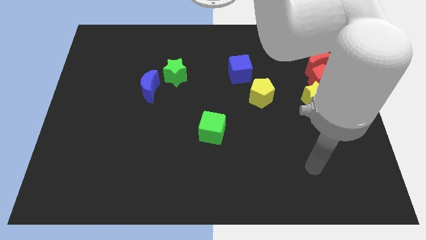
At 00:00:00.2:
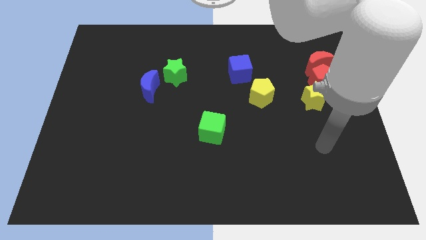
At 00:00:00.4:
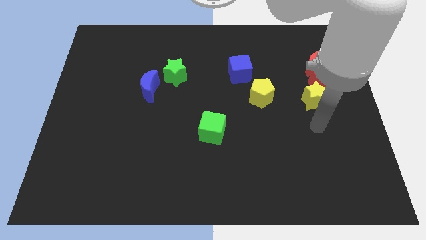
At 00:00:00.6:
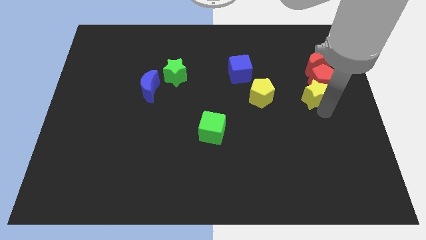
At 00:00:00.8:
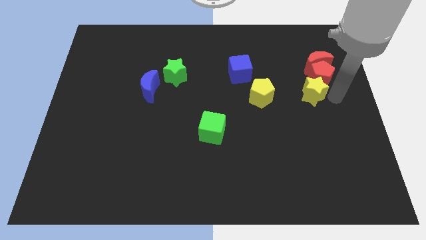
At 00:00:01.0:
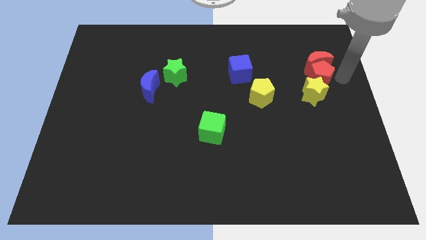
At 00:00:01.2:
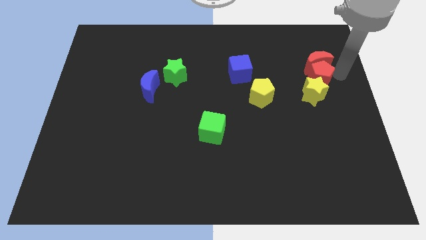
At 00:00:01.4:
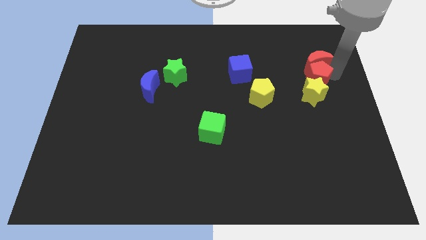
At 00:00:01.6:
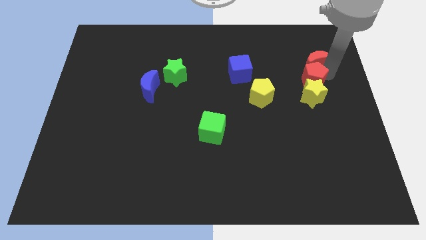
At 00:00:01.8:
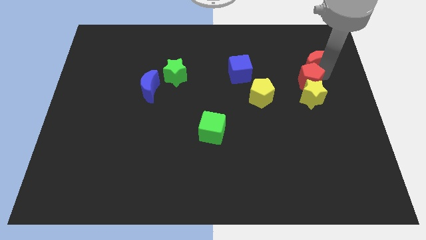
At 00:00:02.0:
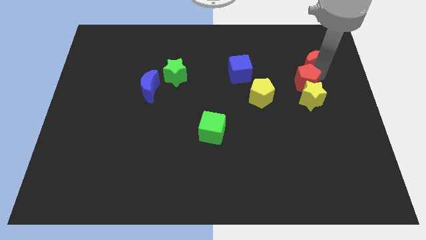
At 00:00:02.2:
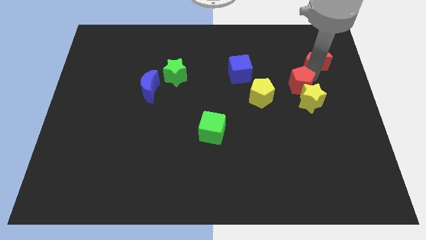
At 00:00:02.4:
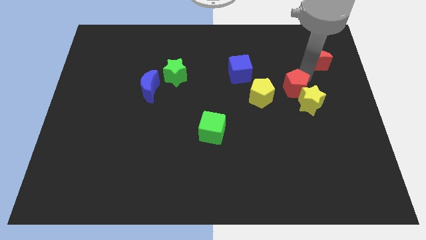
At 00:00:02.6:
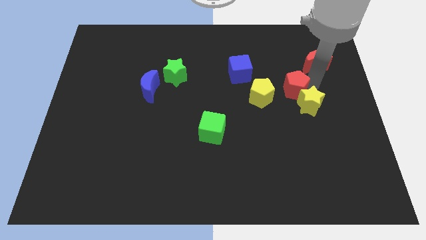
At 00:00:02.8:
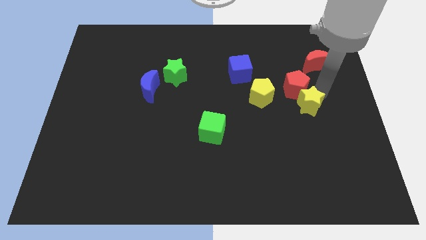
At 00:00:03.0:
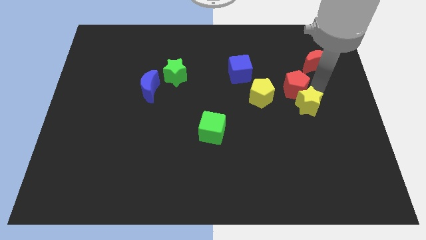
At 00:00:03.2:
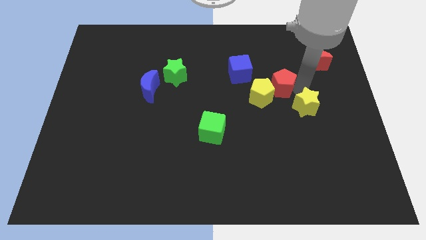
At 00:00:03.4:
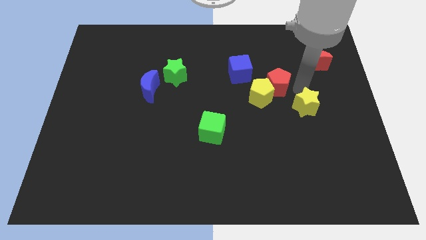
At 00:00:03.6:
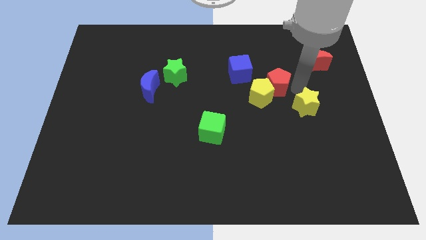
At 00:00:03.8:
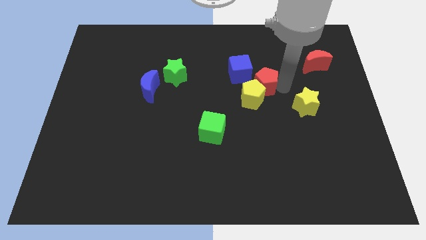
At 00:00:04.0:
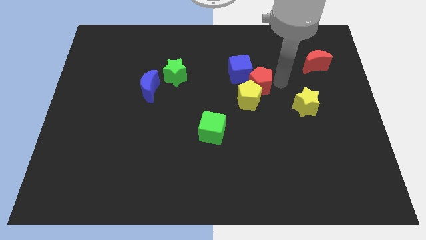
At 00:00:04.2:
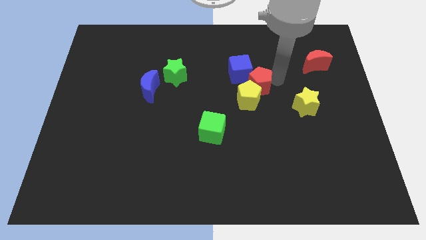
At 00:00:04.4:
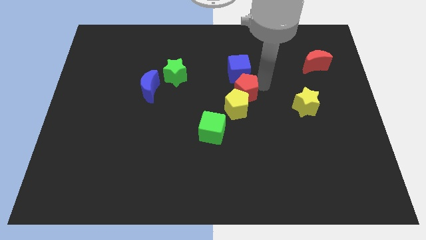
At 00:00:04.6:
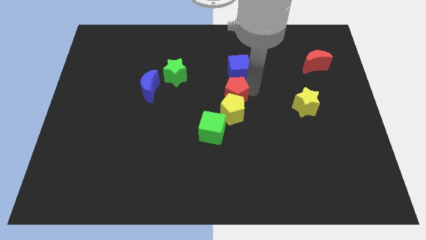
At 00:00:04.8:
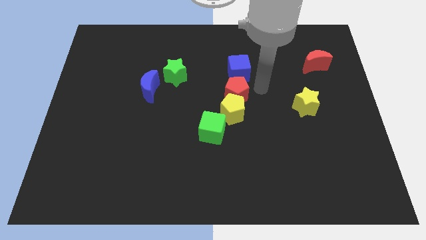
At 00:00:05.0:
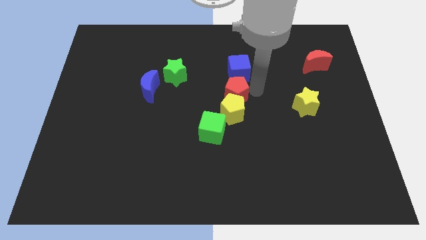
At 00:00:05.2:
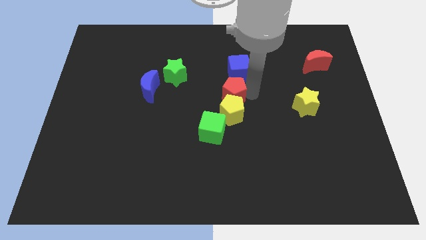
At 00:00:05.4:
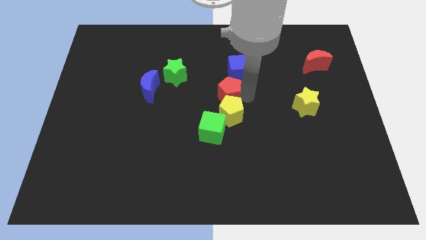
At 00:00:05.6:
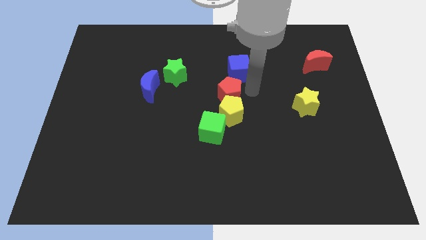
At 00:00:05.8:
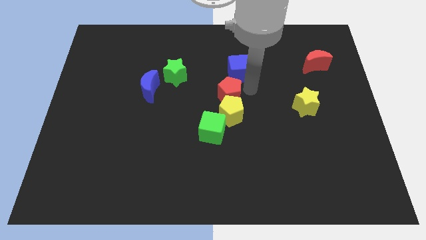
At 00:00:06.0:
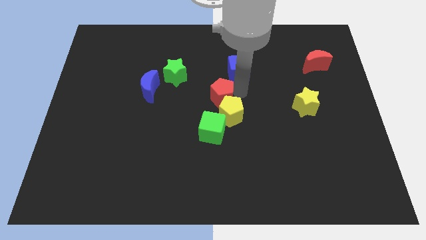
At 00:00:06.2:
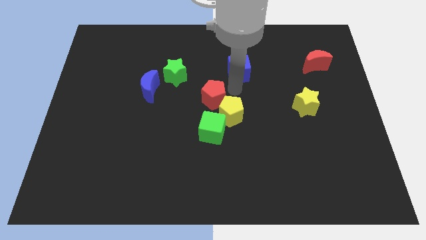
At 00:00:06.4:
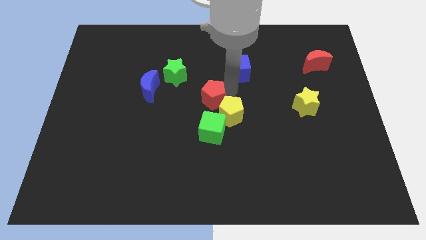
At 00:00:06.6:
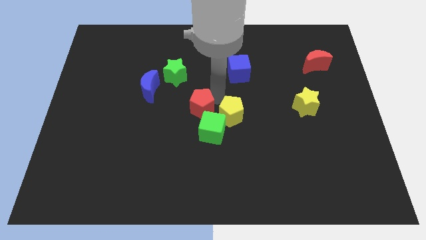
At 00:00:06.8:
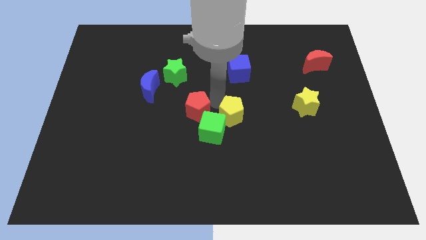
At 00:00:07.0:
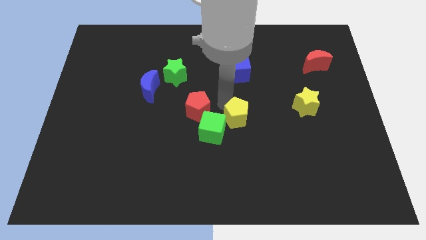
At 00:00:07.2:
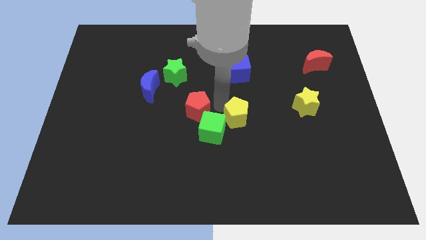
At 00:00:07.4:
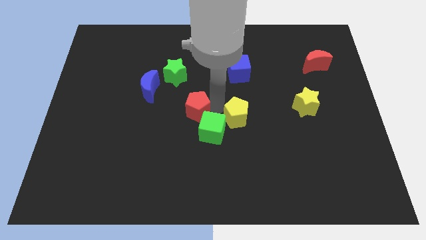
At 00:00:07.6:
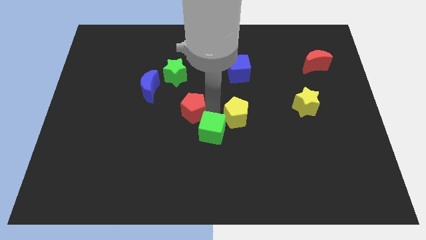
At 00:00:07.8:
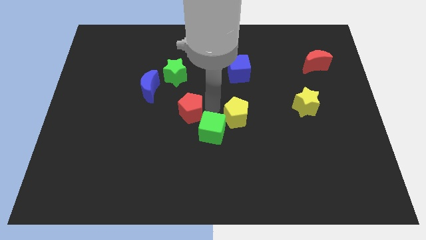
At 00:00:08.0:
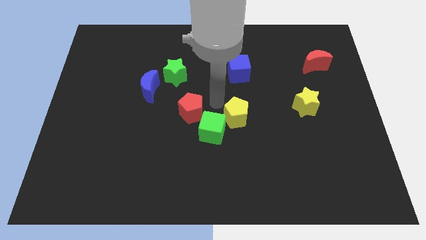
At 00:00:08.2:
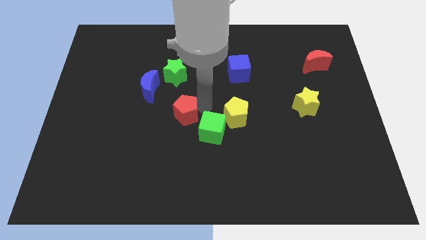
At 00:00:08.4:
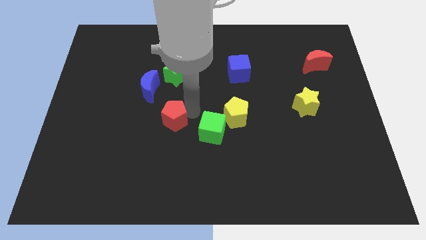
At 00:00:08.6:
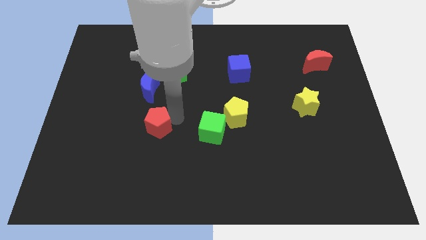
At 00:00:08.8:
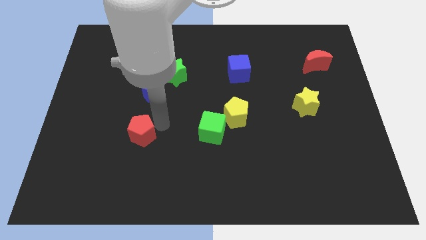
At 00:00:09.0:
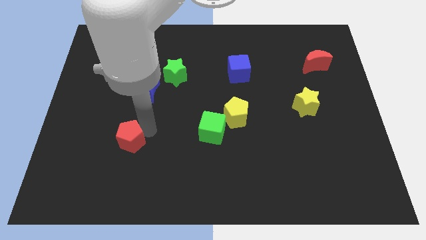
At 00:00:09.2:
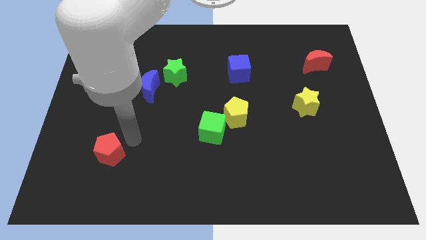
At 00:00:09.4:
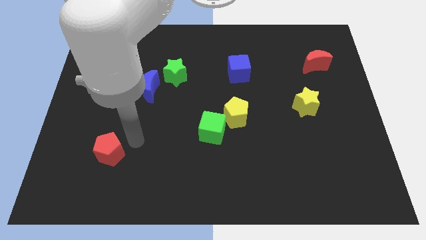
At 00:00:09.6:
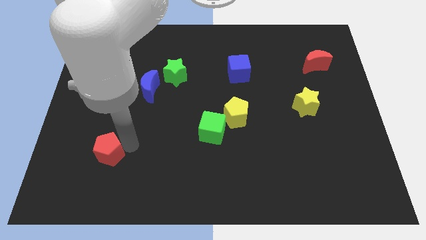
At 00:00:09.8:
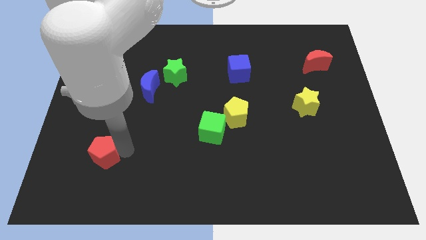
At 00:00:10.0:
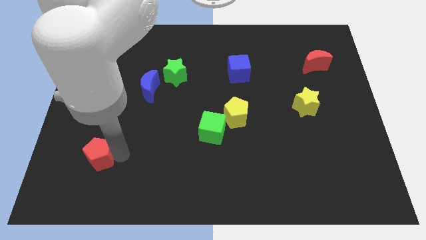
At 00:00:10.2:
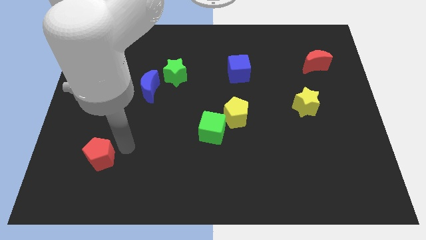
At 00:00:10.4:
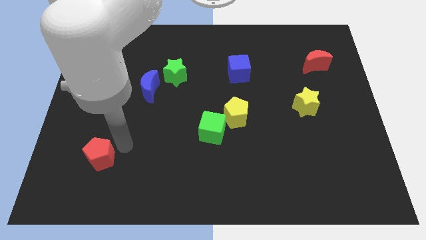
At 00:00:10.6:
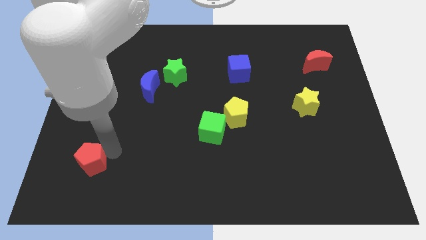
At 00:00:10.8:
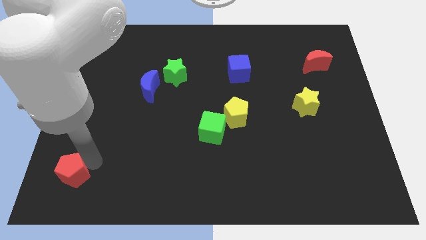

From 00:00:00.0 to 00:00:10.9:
push the red pentagon to the bottom left corner
